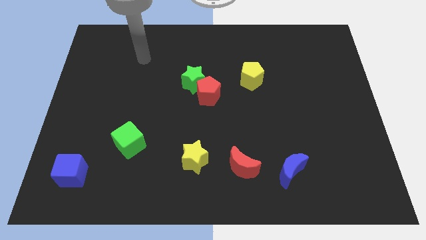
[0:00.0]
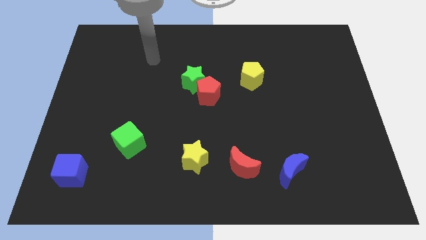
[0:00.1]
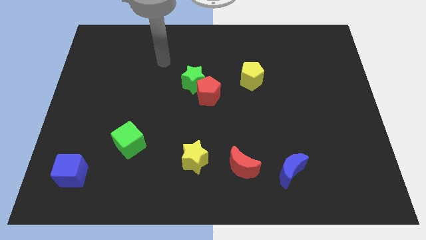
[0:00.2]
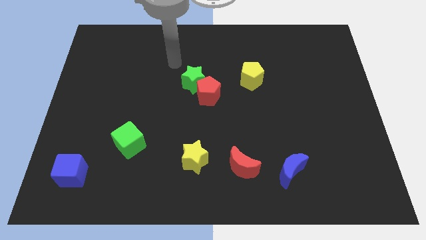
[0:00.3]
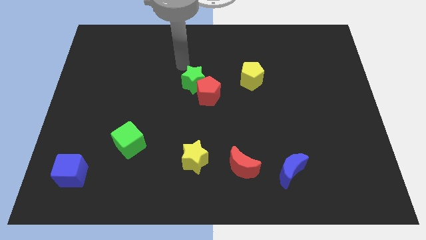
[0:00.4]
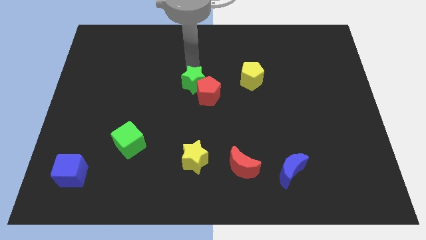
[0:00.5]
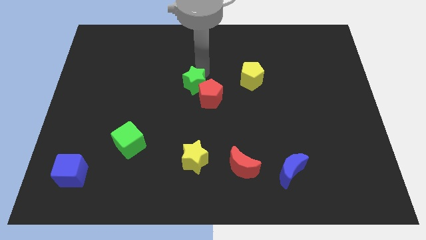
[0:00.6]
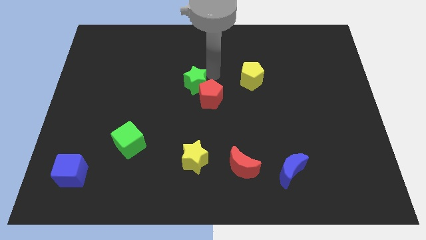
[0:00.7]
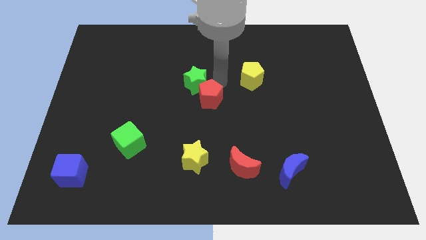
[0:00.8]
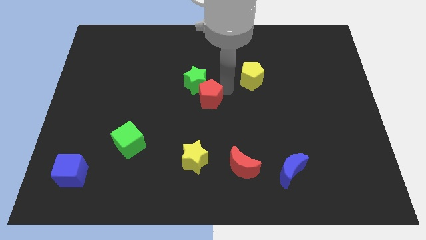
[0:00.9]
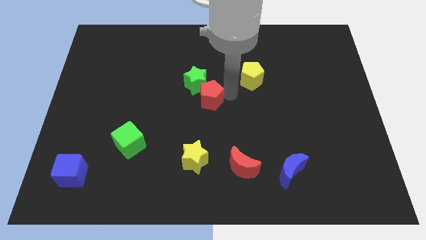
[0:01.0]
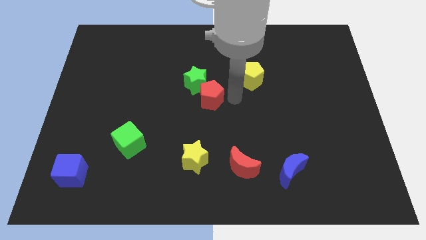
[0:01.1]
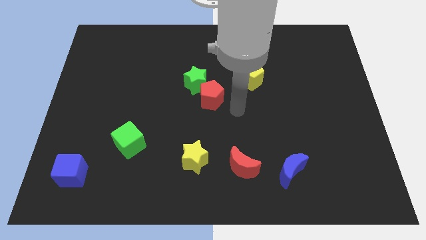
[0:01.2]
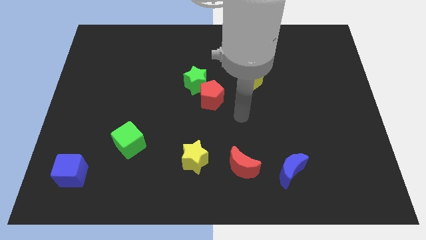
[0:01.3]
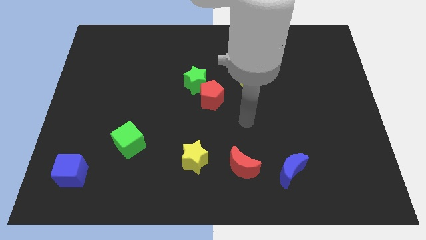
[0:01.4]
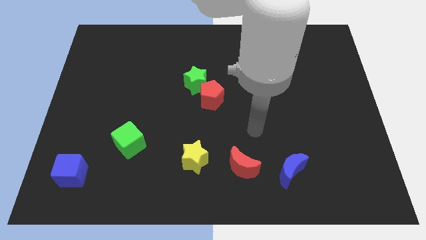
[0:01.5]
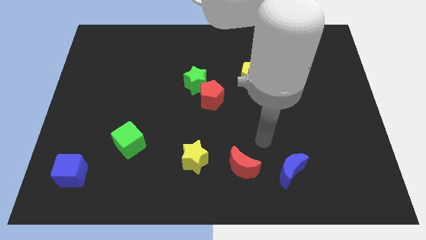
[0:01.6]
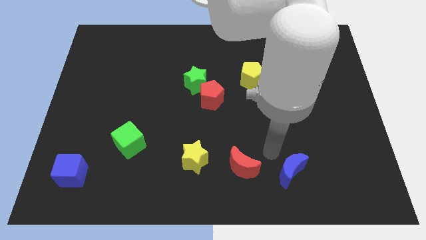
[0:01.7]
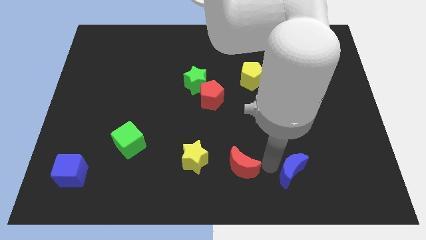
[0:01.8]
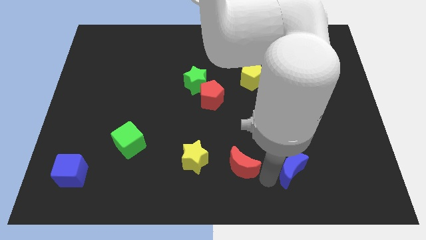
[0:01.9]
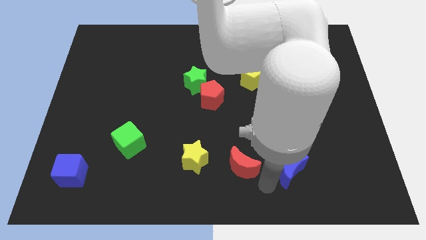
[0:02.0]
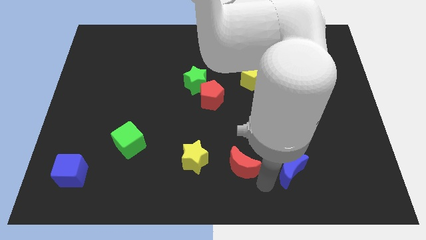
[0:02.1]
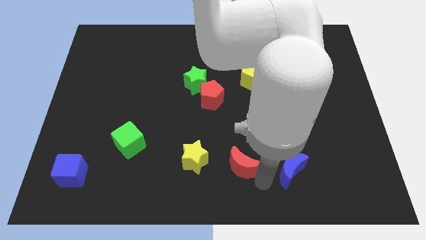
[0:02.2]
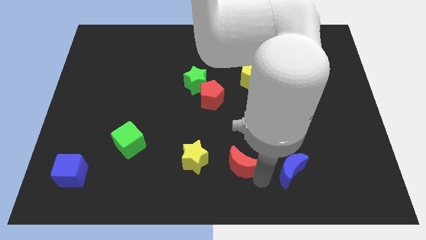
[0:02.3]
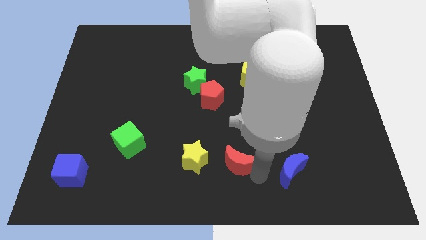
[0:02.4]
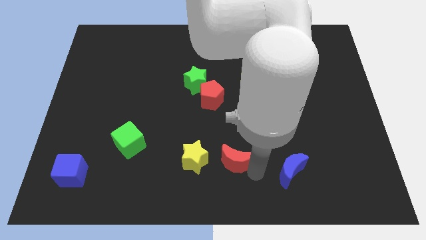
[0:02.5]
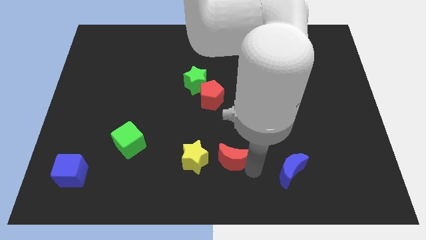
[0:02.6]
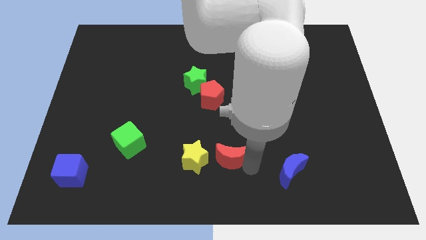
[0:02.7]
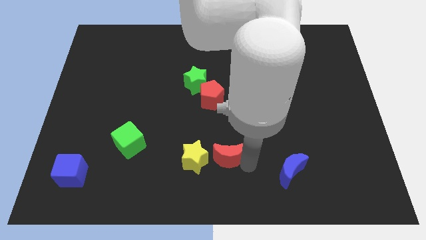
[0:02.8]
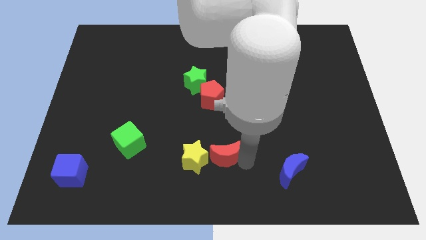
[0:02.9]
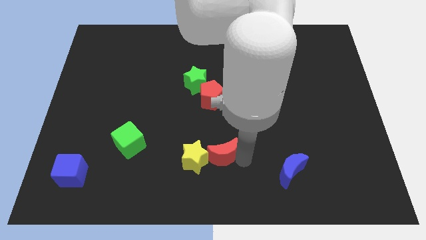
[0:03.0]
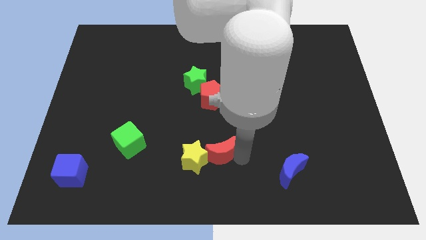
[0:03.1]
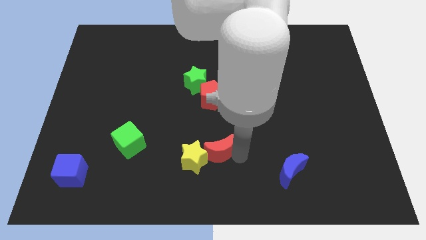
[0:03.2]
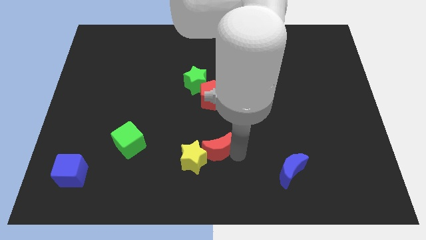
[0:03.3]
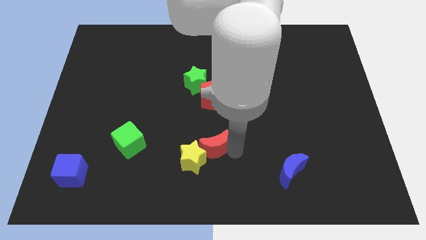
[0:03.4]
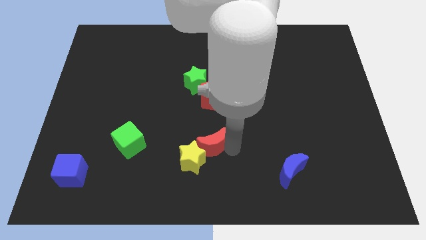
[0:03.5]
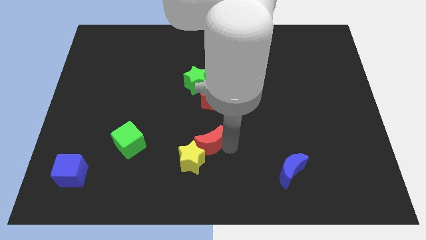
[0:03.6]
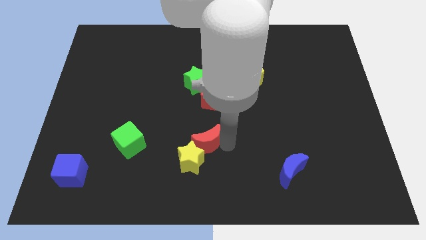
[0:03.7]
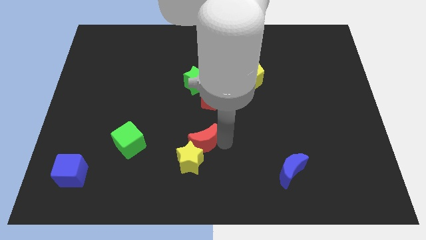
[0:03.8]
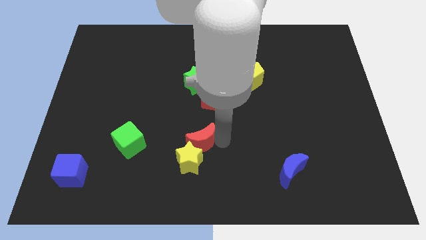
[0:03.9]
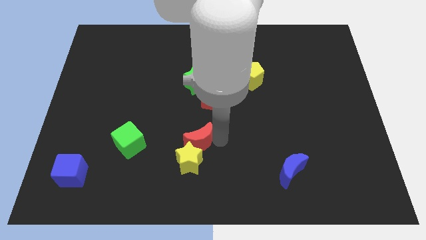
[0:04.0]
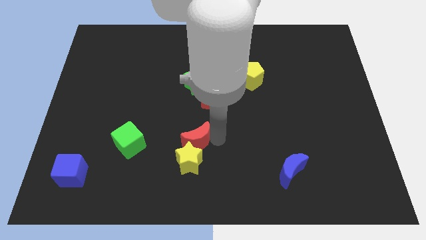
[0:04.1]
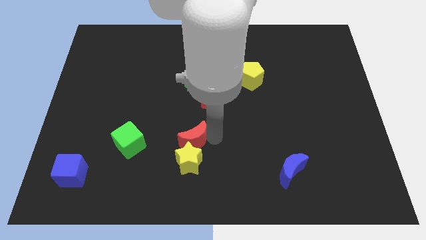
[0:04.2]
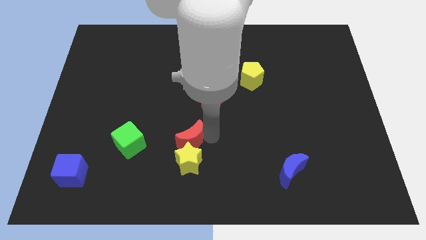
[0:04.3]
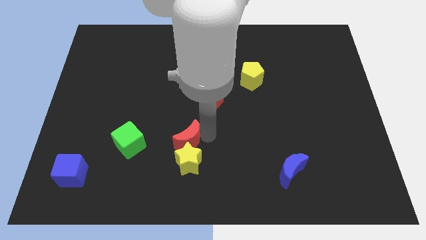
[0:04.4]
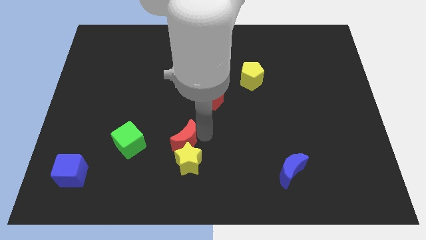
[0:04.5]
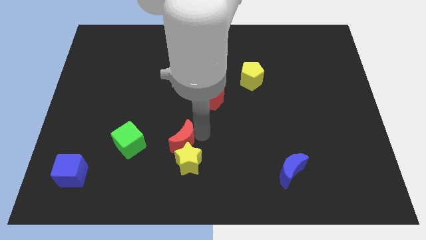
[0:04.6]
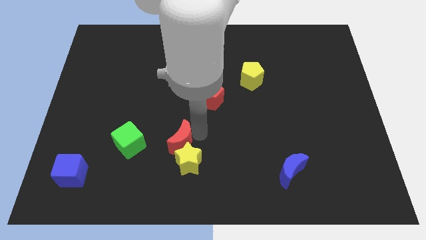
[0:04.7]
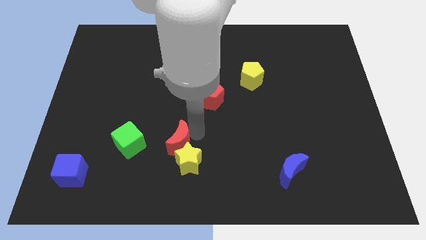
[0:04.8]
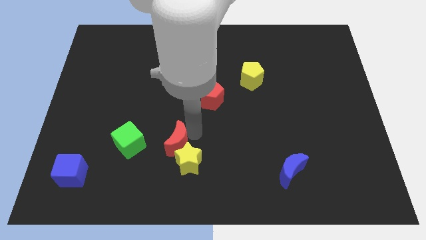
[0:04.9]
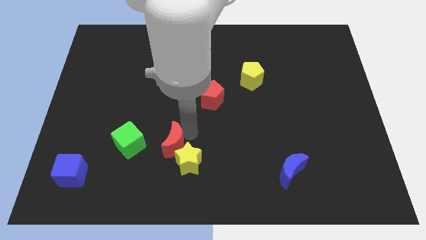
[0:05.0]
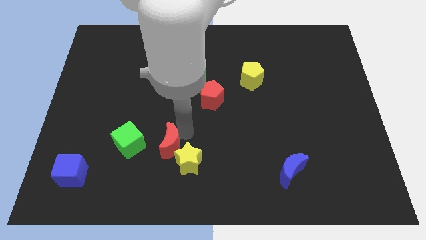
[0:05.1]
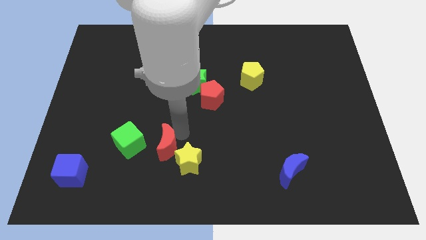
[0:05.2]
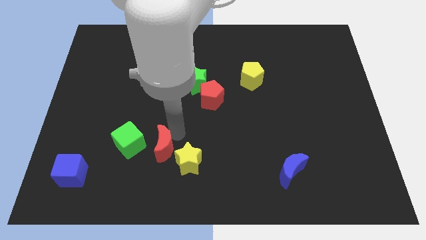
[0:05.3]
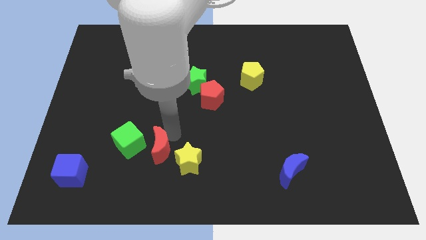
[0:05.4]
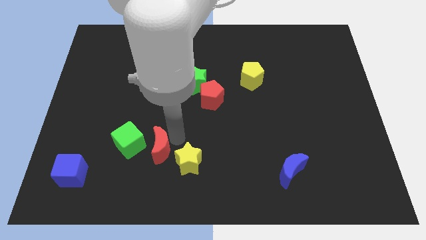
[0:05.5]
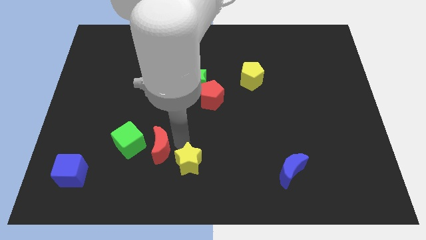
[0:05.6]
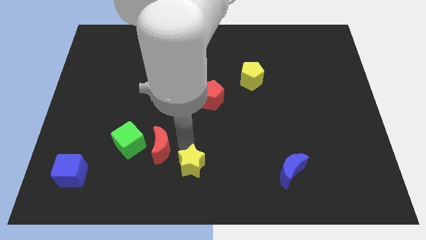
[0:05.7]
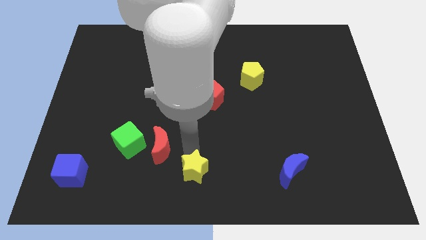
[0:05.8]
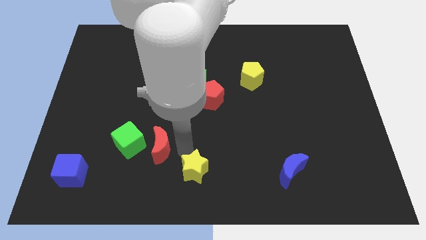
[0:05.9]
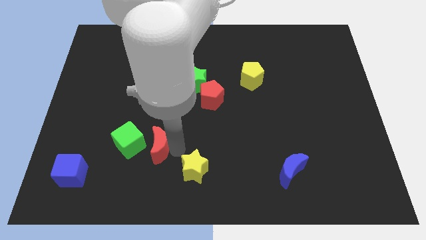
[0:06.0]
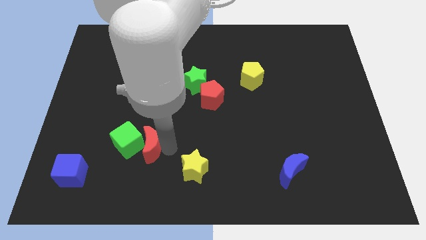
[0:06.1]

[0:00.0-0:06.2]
put the red moon next to the green cube

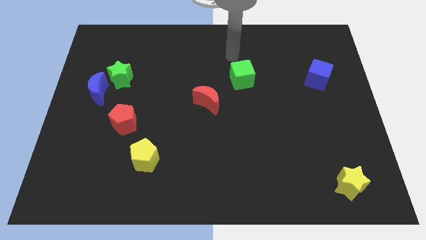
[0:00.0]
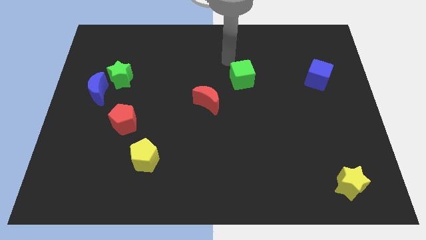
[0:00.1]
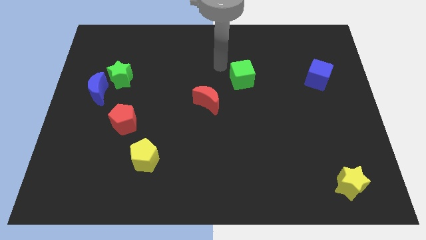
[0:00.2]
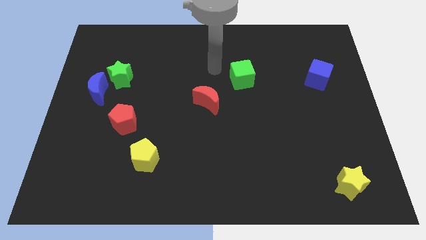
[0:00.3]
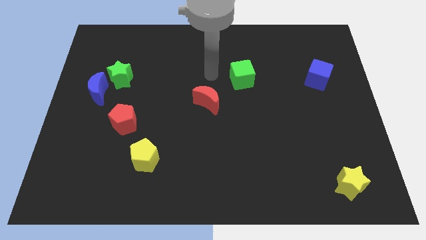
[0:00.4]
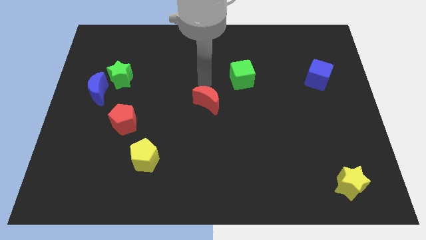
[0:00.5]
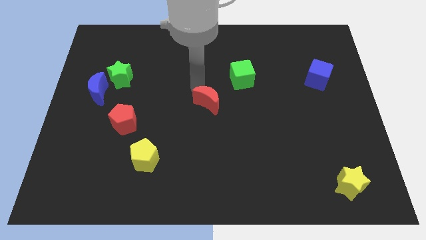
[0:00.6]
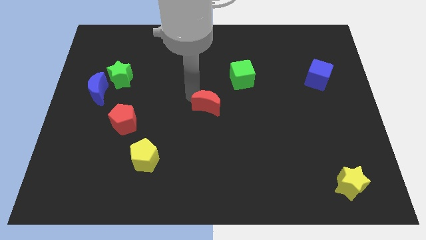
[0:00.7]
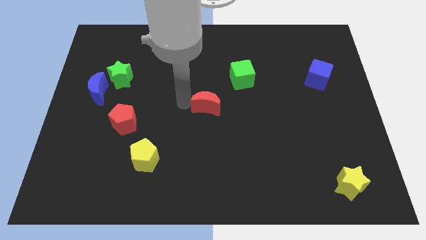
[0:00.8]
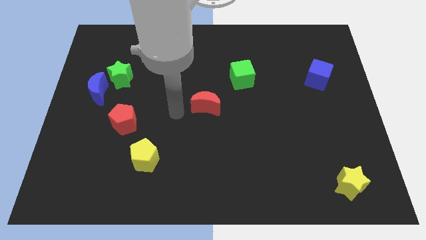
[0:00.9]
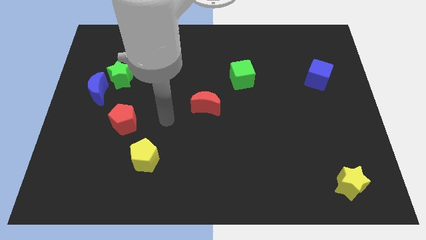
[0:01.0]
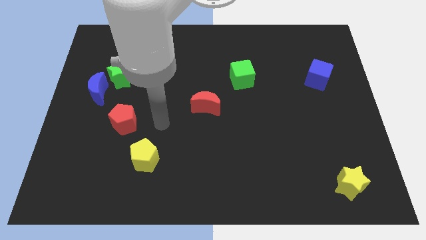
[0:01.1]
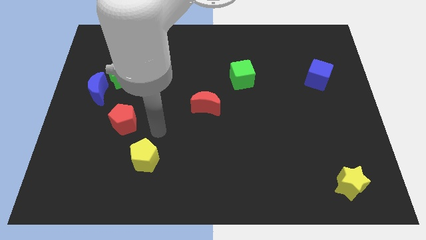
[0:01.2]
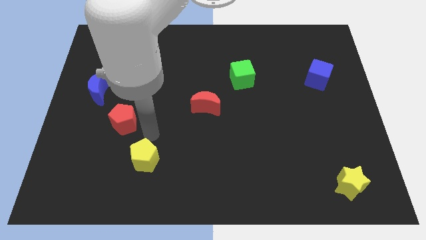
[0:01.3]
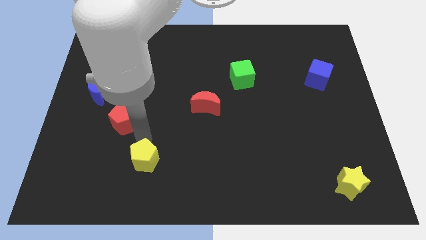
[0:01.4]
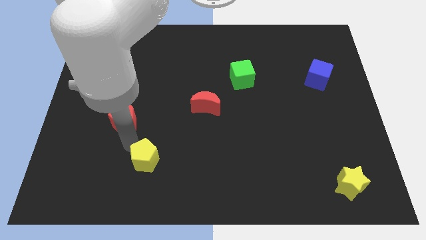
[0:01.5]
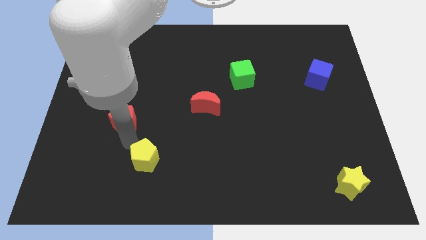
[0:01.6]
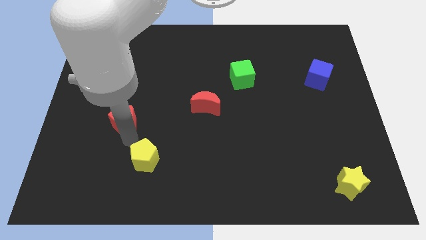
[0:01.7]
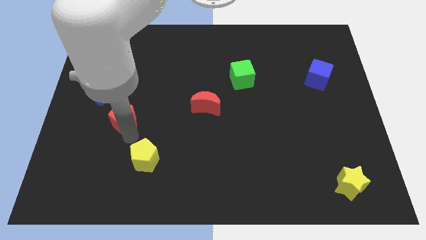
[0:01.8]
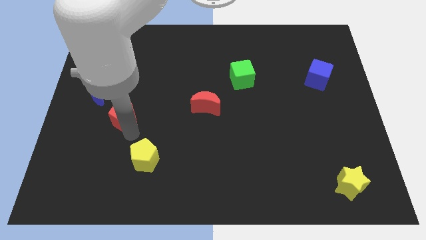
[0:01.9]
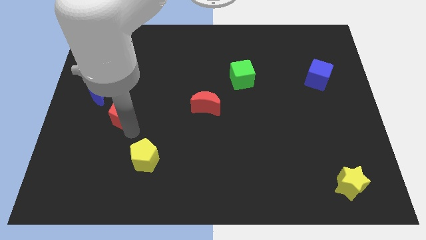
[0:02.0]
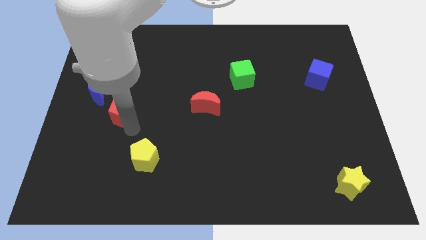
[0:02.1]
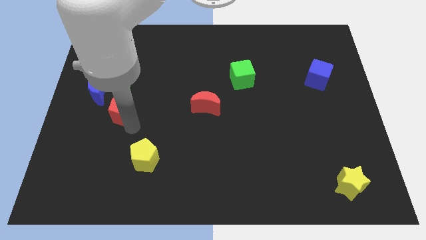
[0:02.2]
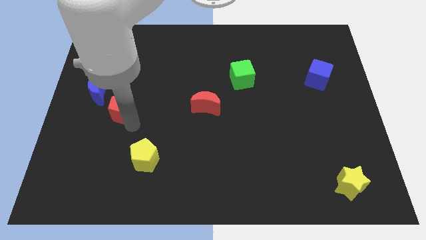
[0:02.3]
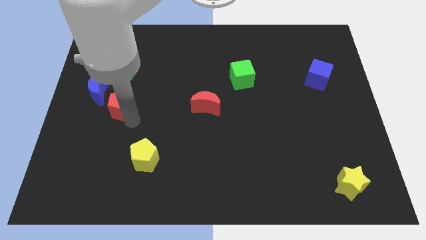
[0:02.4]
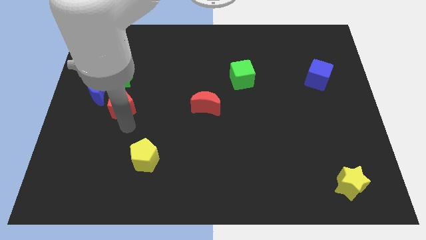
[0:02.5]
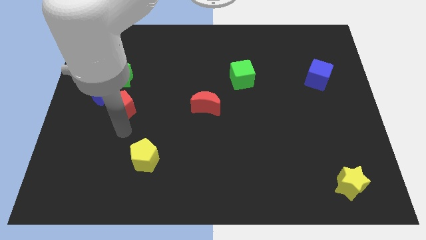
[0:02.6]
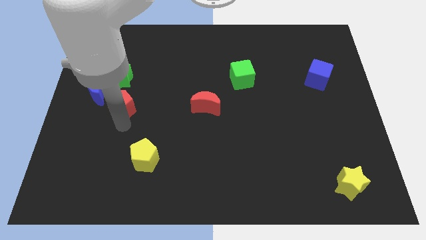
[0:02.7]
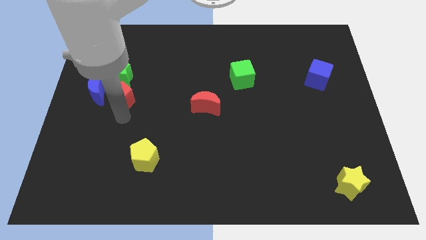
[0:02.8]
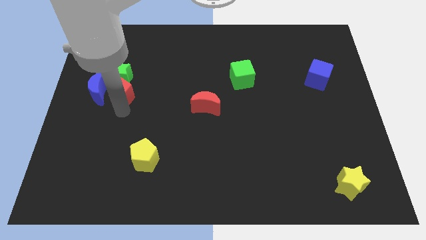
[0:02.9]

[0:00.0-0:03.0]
slide the red pentagon to the green star
